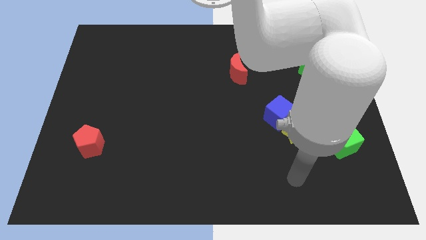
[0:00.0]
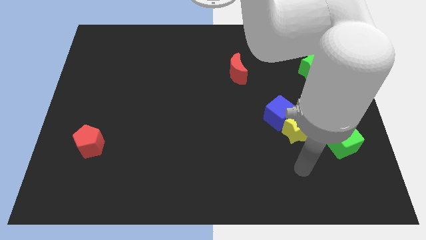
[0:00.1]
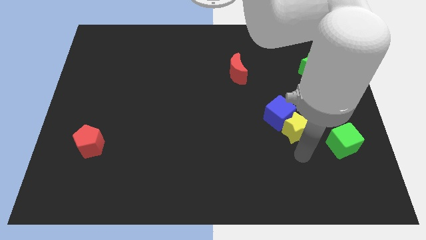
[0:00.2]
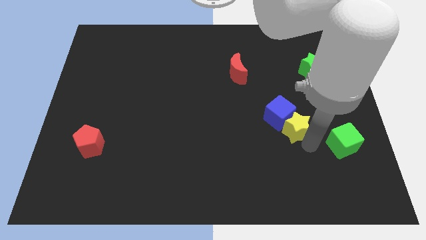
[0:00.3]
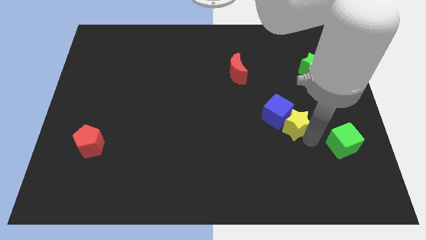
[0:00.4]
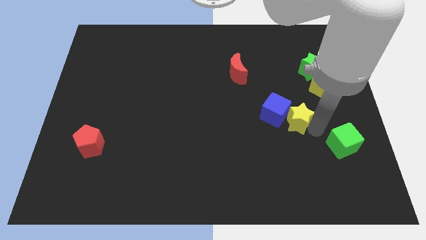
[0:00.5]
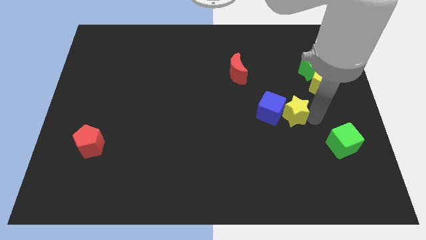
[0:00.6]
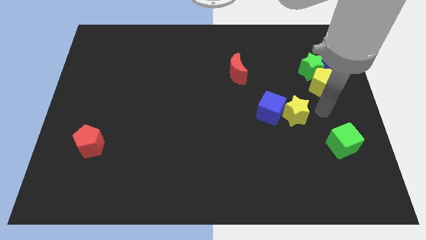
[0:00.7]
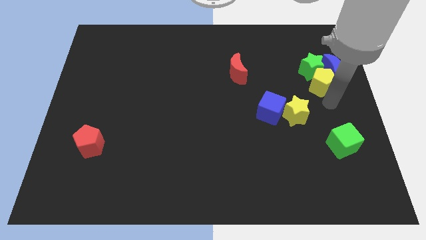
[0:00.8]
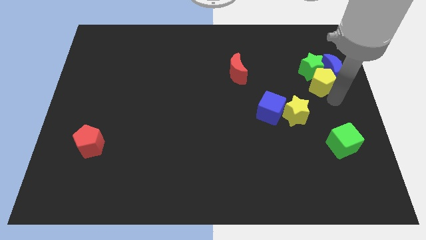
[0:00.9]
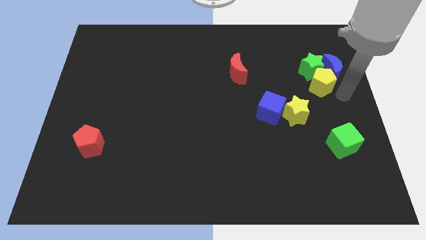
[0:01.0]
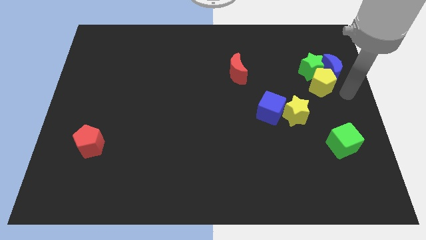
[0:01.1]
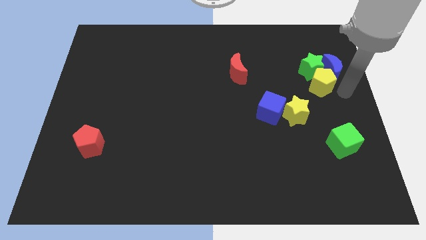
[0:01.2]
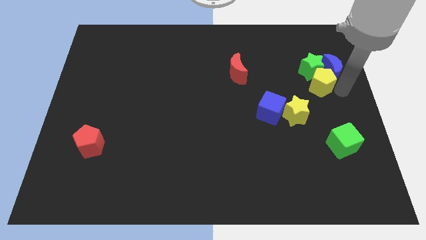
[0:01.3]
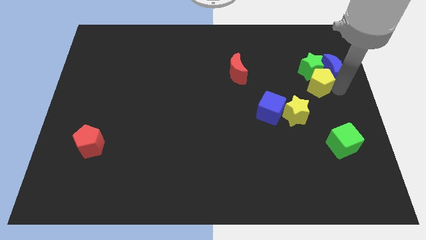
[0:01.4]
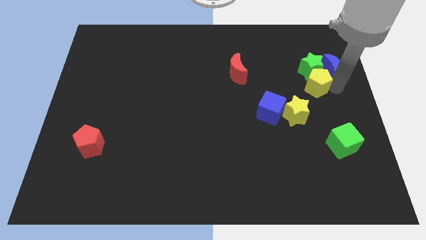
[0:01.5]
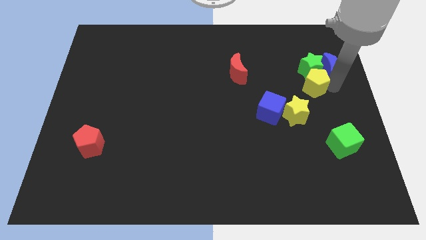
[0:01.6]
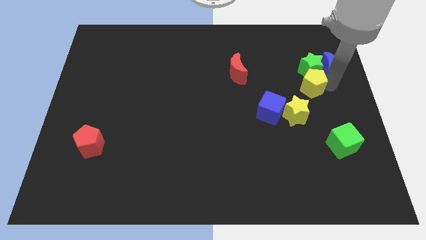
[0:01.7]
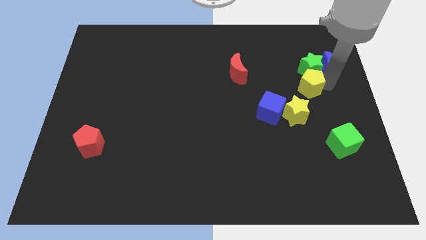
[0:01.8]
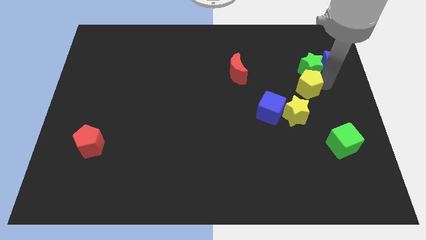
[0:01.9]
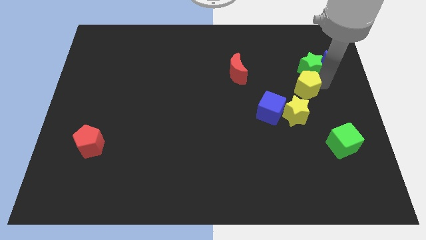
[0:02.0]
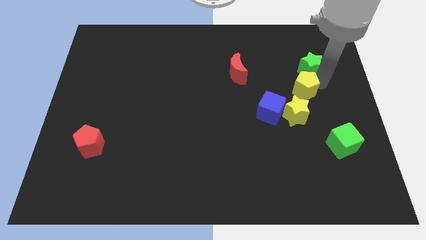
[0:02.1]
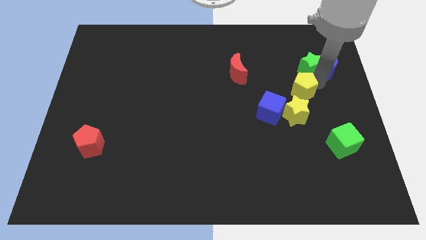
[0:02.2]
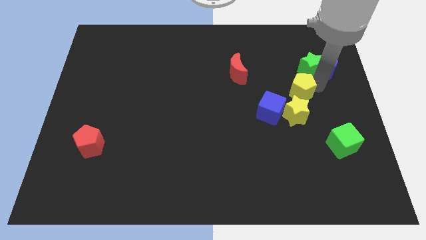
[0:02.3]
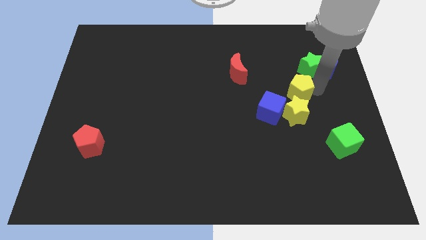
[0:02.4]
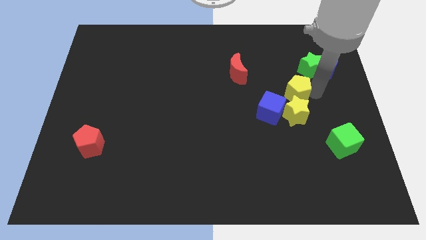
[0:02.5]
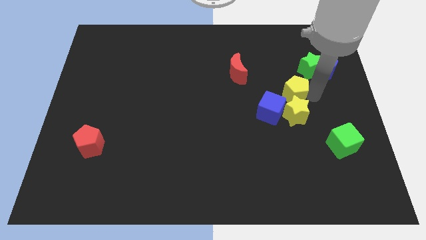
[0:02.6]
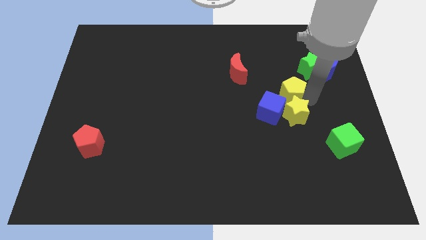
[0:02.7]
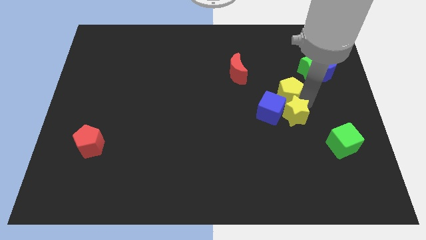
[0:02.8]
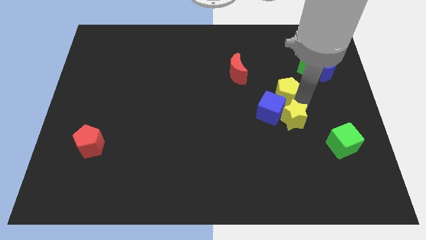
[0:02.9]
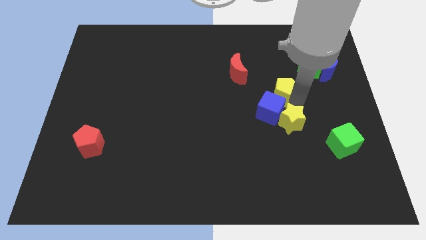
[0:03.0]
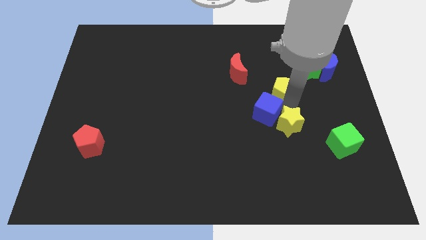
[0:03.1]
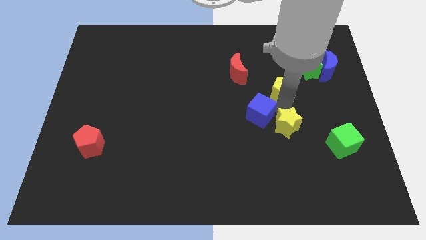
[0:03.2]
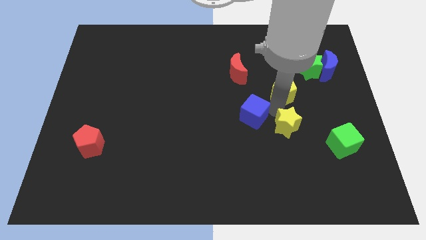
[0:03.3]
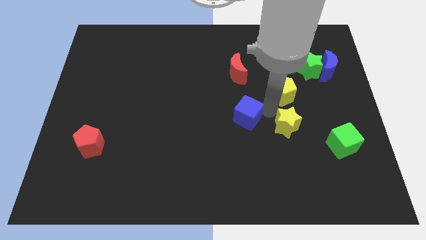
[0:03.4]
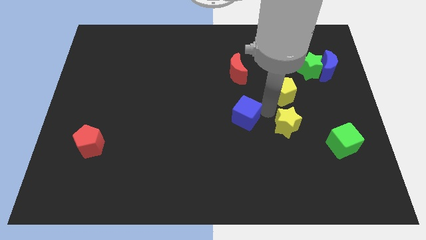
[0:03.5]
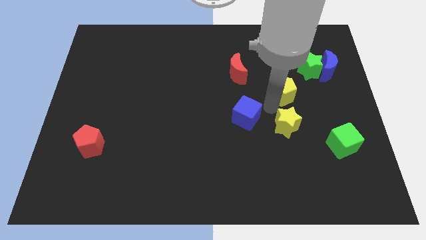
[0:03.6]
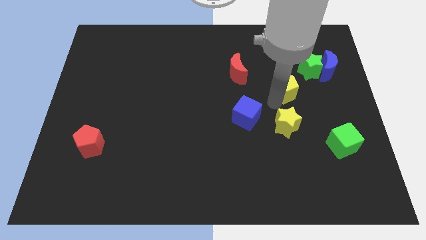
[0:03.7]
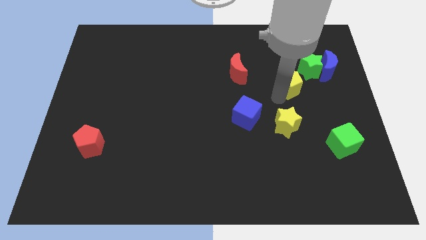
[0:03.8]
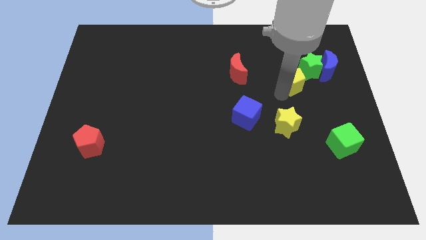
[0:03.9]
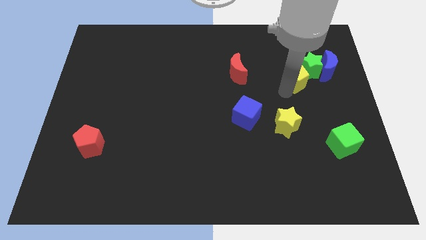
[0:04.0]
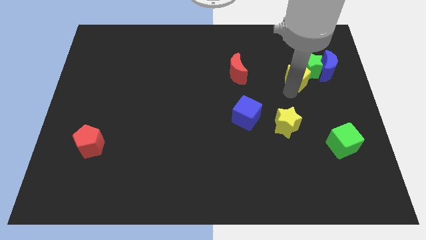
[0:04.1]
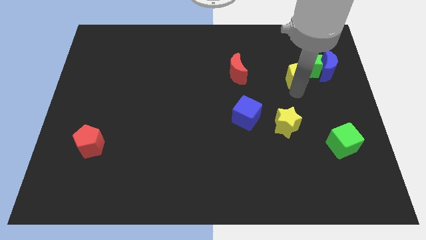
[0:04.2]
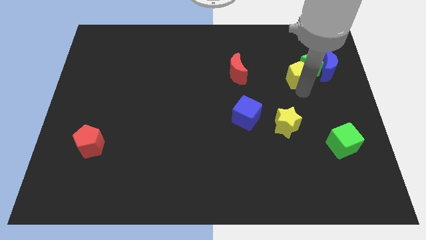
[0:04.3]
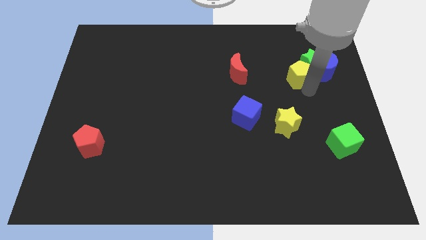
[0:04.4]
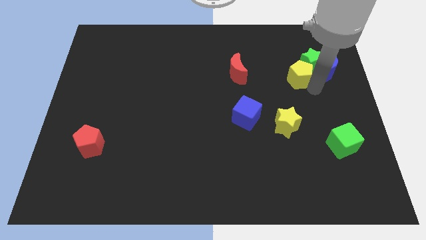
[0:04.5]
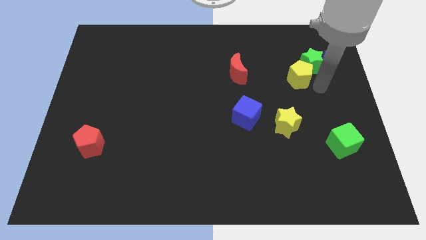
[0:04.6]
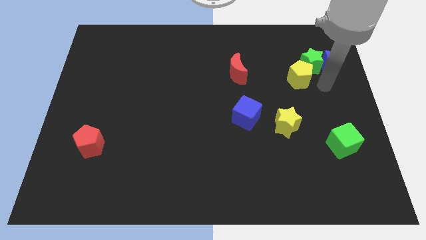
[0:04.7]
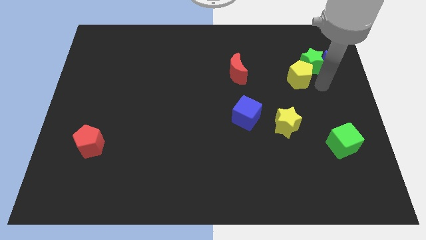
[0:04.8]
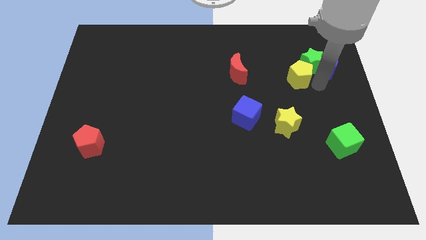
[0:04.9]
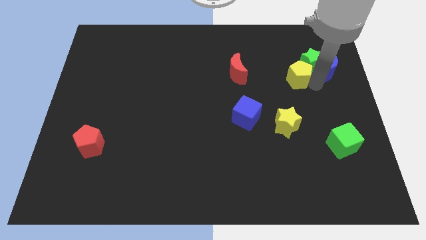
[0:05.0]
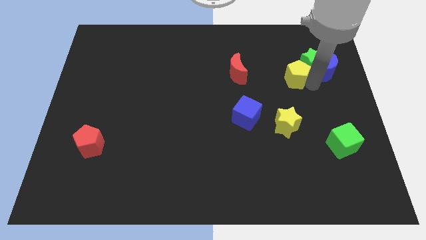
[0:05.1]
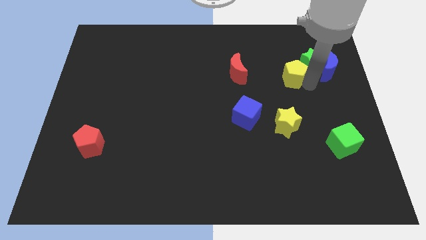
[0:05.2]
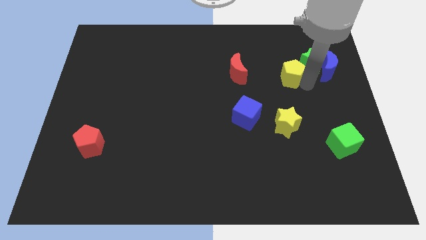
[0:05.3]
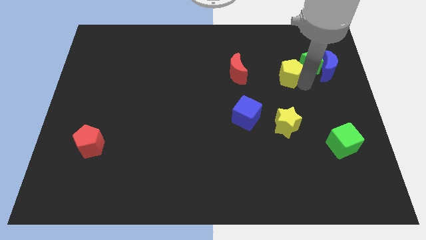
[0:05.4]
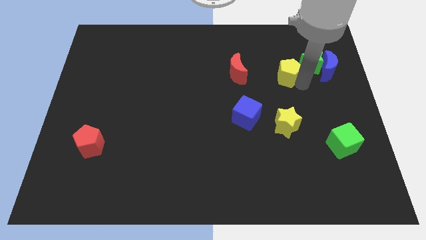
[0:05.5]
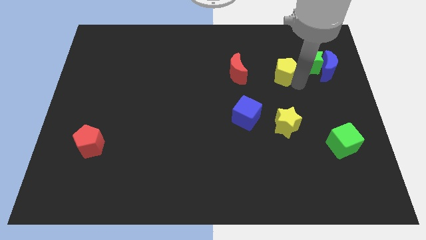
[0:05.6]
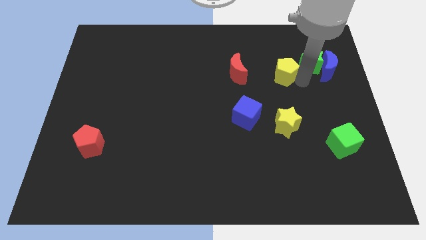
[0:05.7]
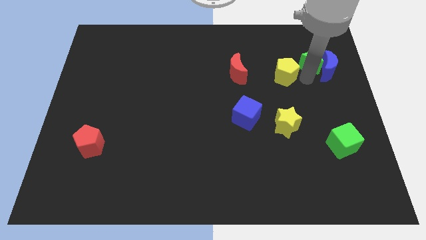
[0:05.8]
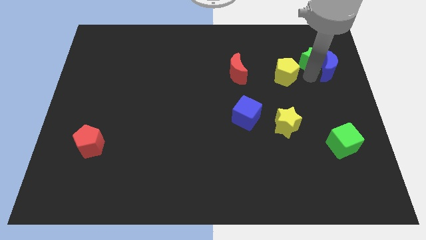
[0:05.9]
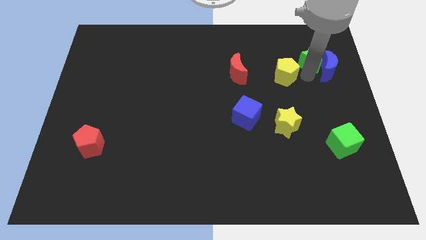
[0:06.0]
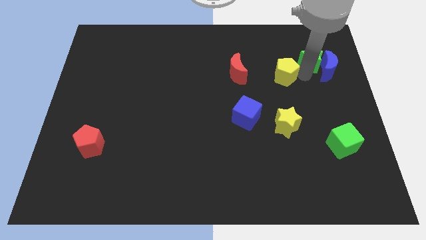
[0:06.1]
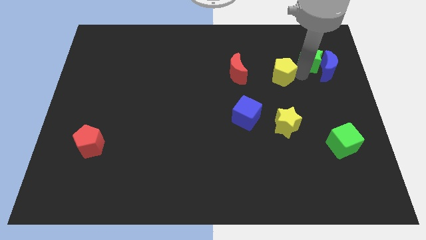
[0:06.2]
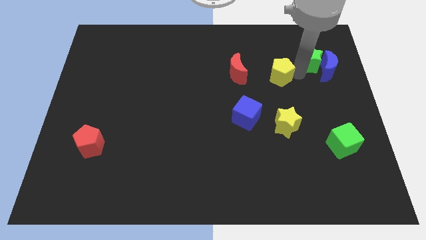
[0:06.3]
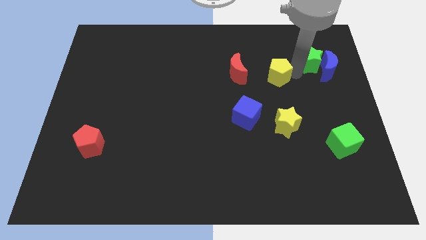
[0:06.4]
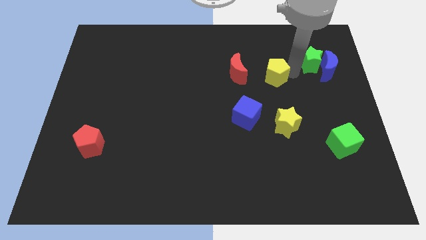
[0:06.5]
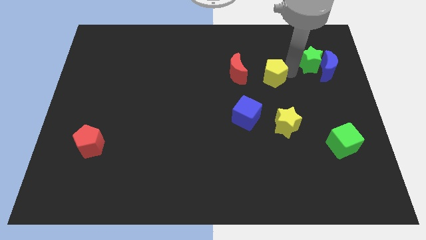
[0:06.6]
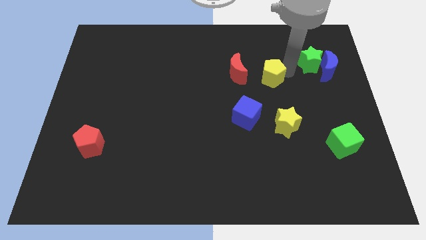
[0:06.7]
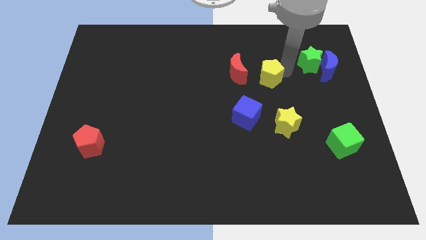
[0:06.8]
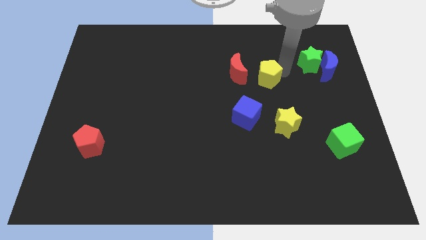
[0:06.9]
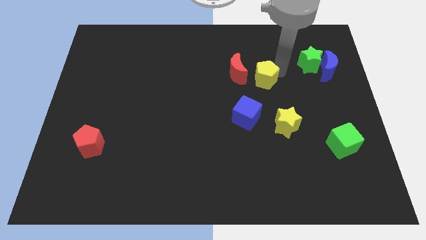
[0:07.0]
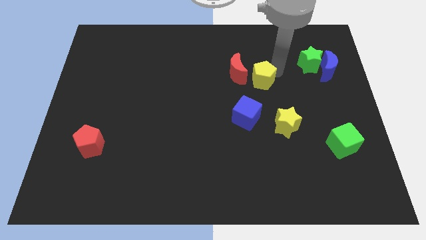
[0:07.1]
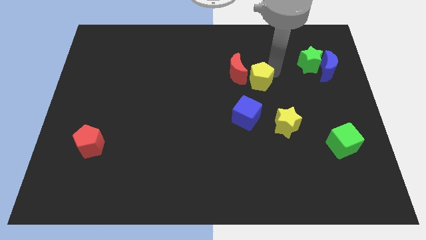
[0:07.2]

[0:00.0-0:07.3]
slide the yellow pentagon close to the red moon
